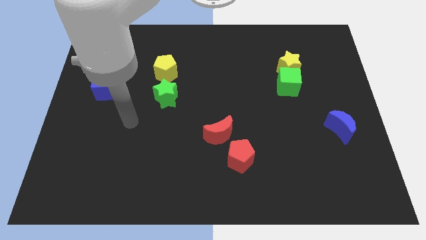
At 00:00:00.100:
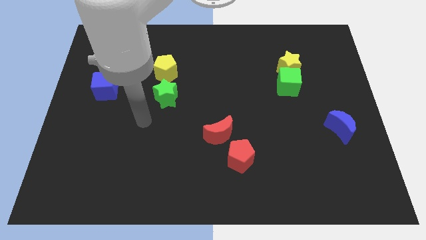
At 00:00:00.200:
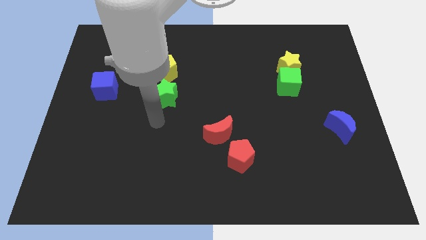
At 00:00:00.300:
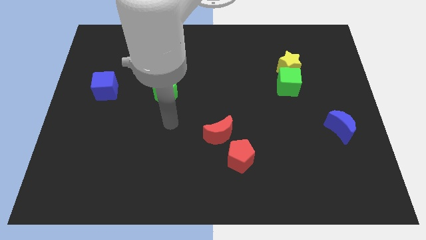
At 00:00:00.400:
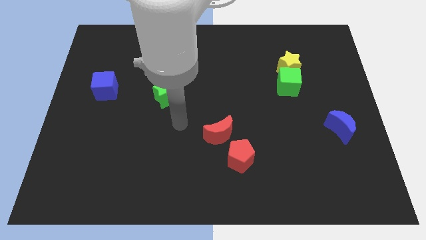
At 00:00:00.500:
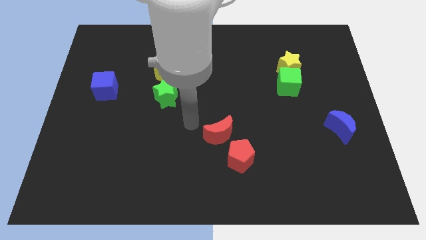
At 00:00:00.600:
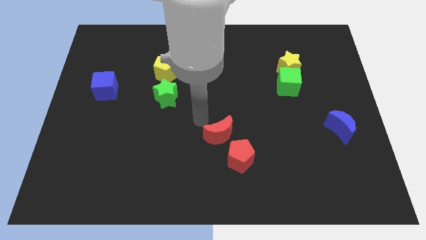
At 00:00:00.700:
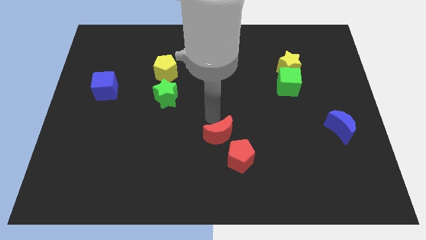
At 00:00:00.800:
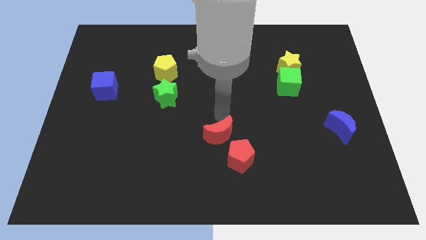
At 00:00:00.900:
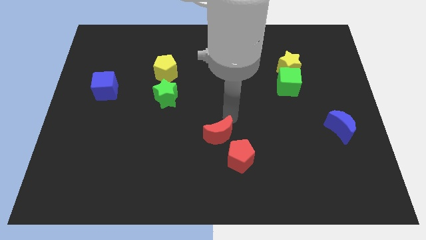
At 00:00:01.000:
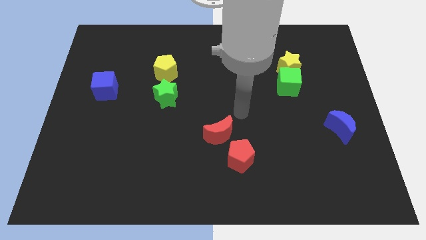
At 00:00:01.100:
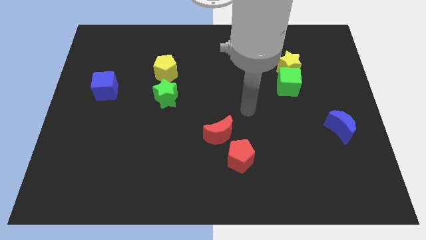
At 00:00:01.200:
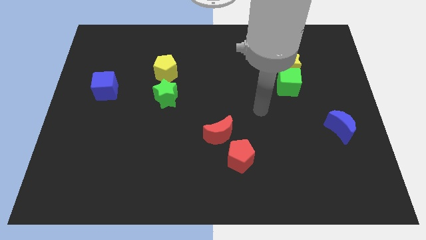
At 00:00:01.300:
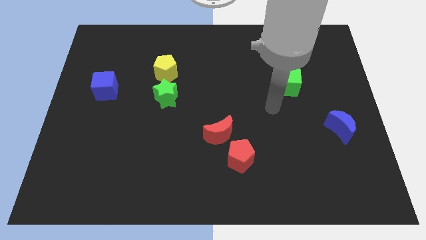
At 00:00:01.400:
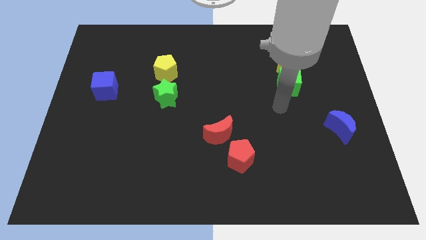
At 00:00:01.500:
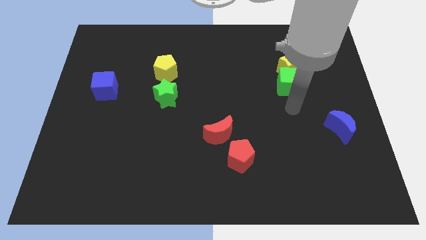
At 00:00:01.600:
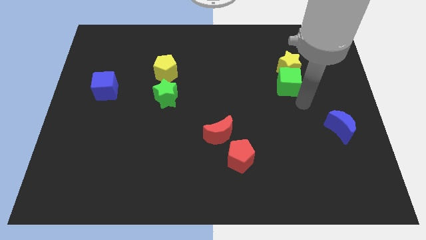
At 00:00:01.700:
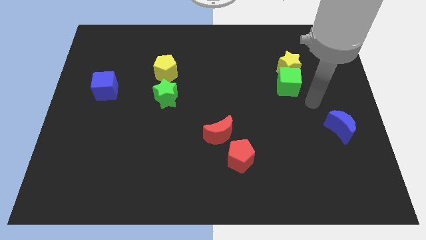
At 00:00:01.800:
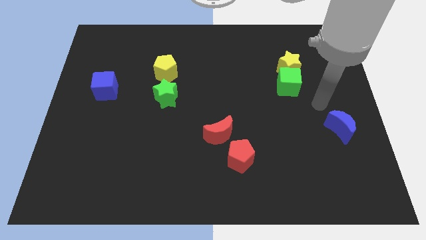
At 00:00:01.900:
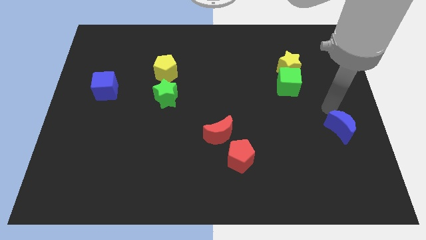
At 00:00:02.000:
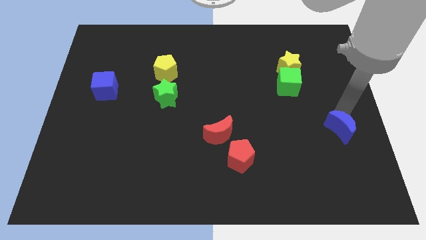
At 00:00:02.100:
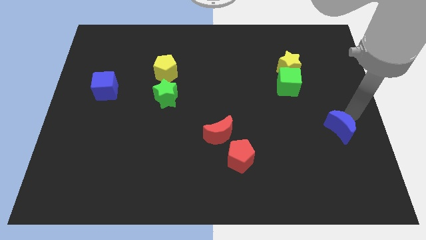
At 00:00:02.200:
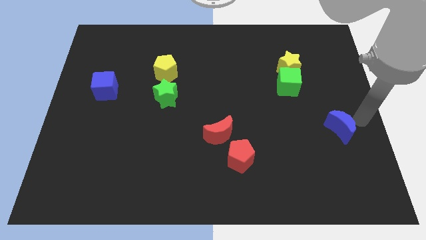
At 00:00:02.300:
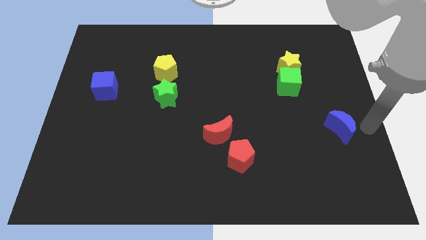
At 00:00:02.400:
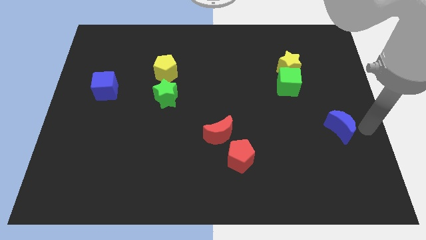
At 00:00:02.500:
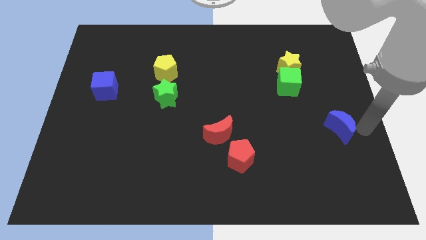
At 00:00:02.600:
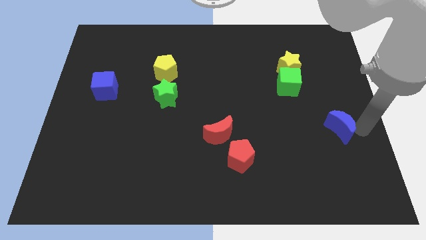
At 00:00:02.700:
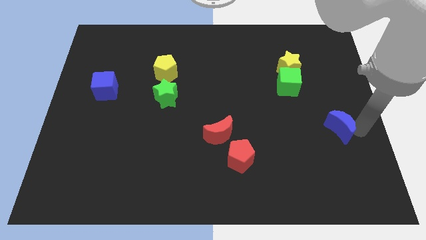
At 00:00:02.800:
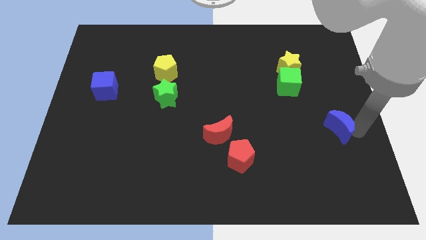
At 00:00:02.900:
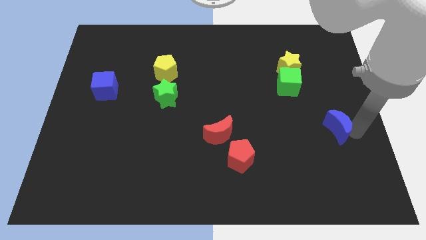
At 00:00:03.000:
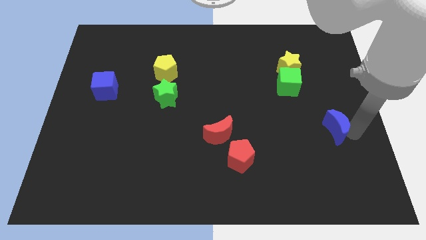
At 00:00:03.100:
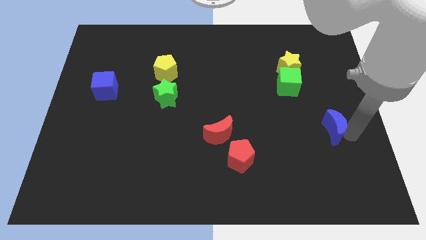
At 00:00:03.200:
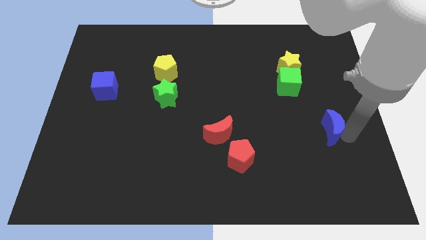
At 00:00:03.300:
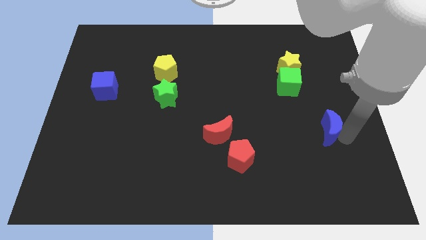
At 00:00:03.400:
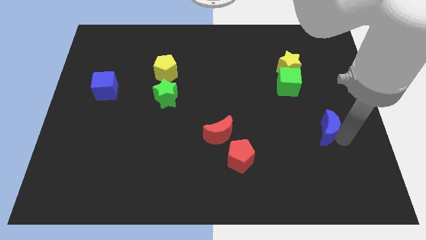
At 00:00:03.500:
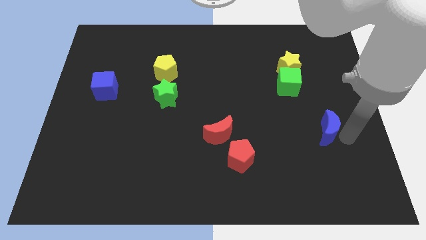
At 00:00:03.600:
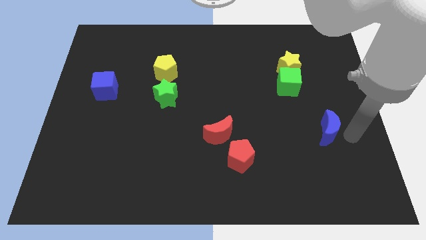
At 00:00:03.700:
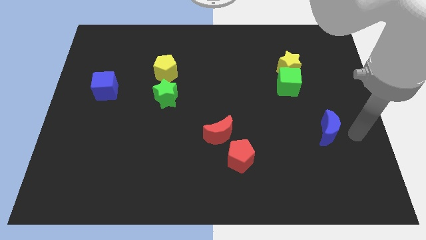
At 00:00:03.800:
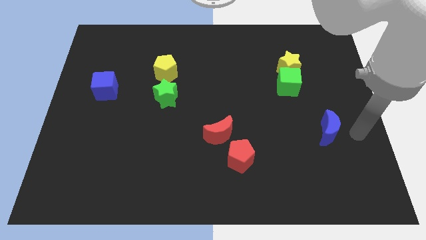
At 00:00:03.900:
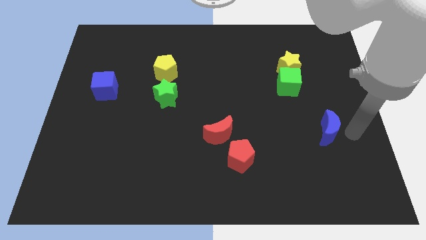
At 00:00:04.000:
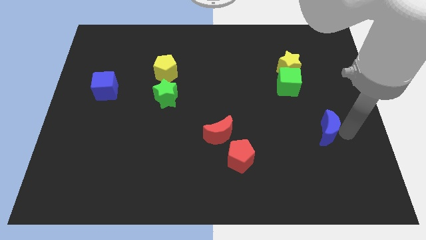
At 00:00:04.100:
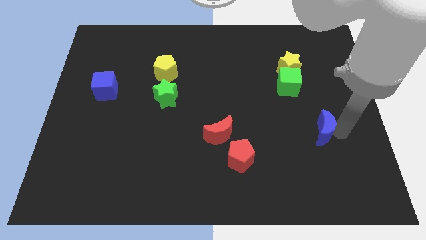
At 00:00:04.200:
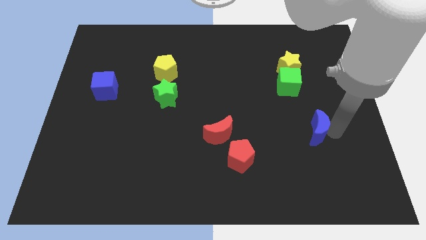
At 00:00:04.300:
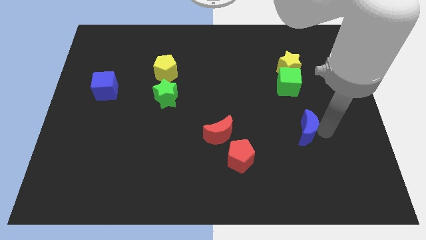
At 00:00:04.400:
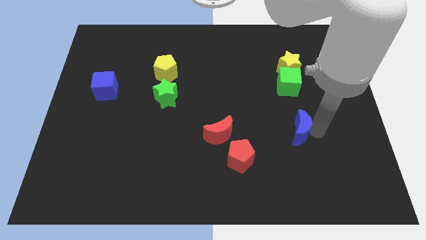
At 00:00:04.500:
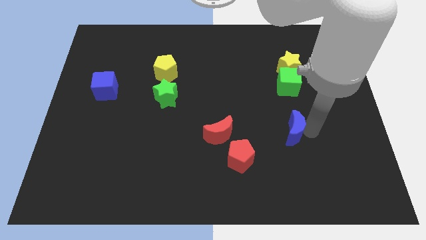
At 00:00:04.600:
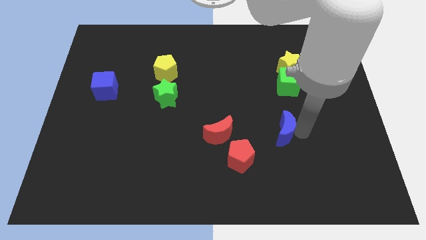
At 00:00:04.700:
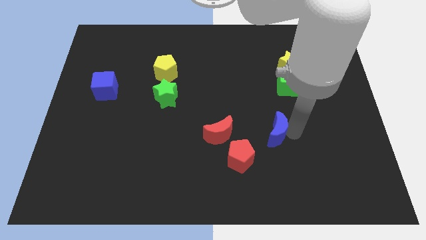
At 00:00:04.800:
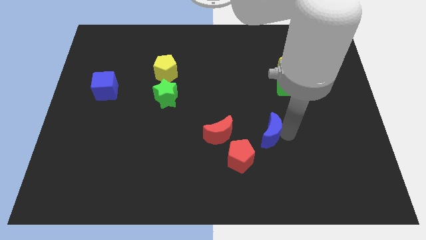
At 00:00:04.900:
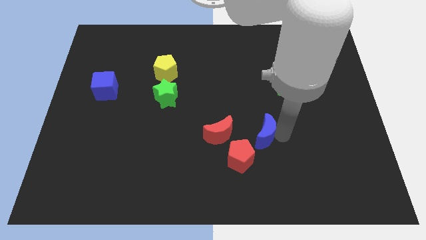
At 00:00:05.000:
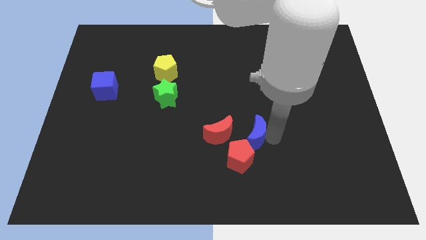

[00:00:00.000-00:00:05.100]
push the blue moon to the top side of the red pentagon

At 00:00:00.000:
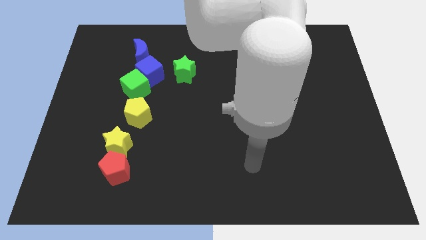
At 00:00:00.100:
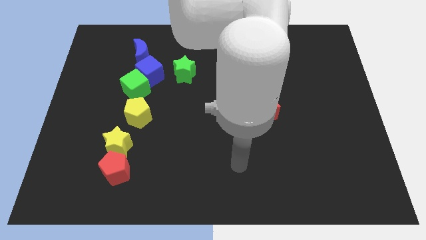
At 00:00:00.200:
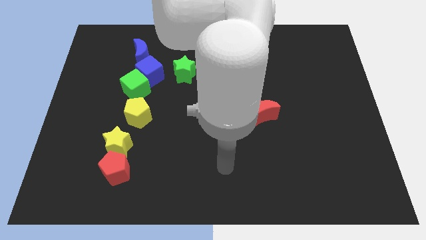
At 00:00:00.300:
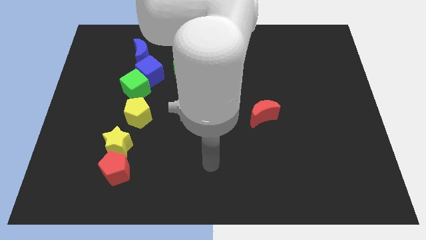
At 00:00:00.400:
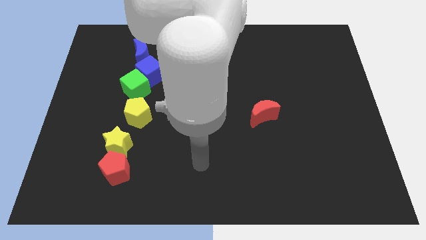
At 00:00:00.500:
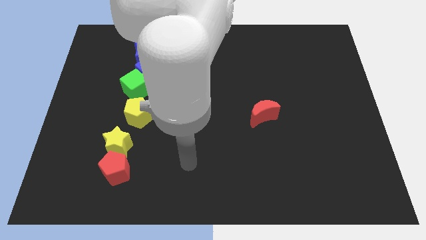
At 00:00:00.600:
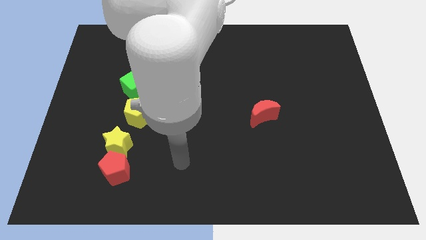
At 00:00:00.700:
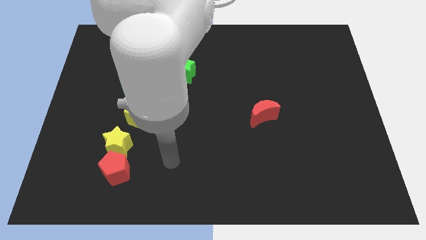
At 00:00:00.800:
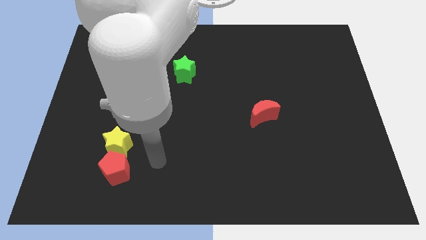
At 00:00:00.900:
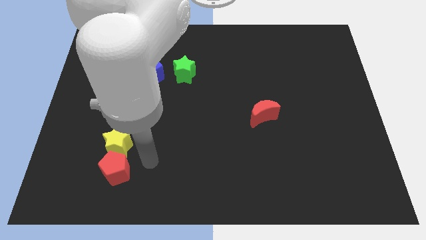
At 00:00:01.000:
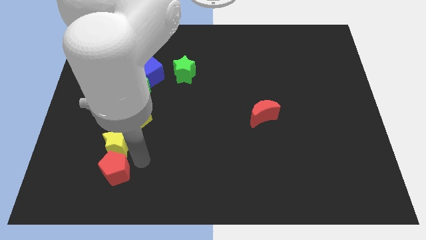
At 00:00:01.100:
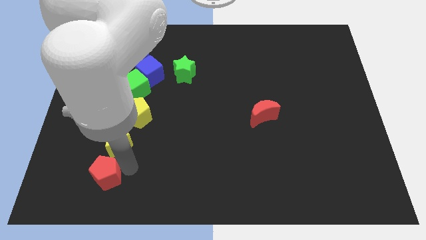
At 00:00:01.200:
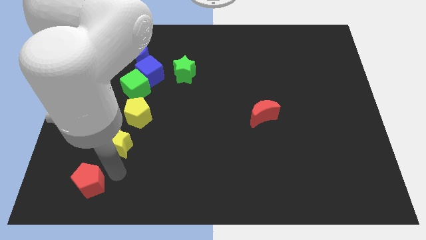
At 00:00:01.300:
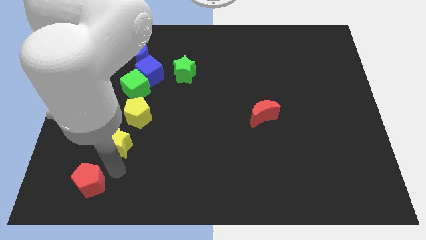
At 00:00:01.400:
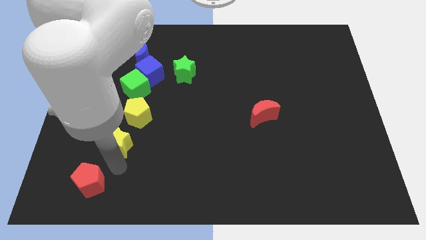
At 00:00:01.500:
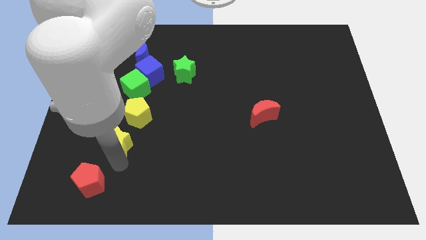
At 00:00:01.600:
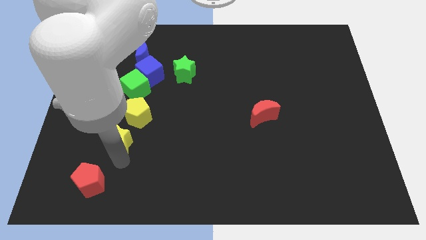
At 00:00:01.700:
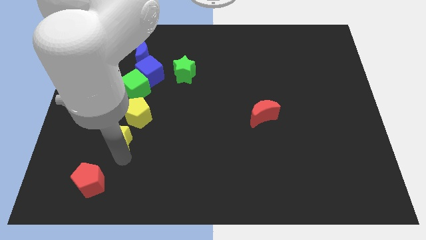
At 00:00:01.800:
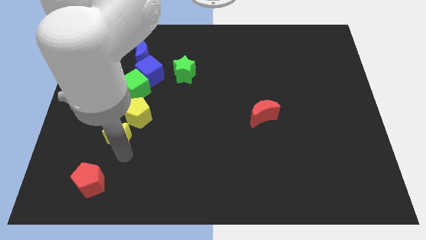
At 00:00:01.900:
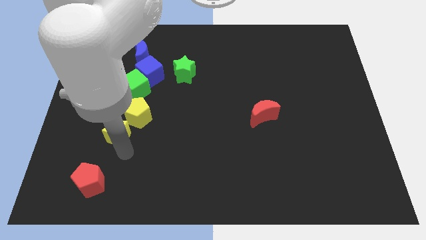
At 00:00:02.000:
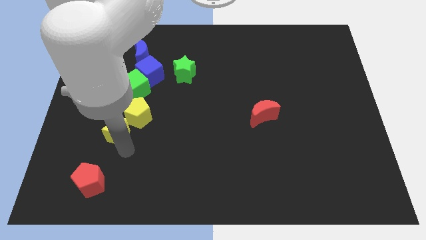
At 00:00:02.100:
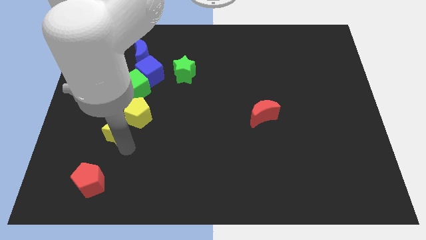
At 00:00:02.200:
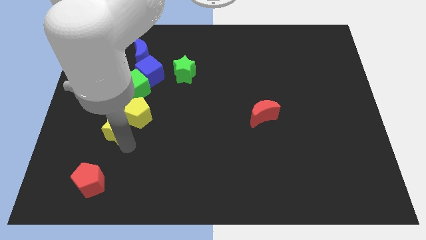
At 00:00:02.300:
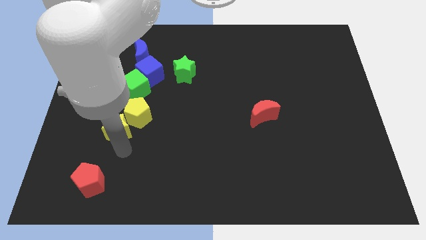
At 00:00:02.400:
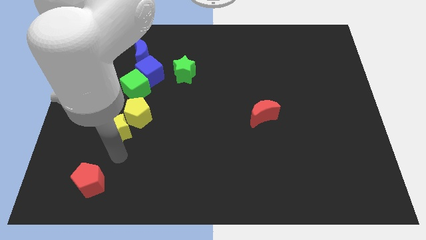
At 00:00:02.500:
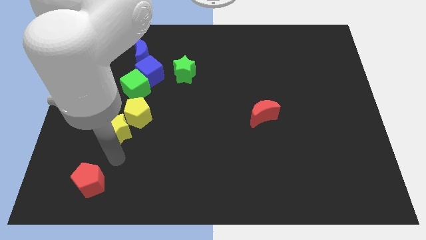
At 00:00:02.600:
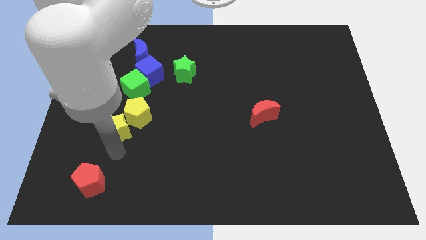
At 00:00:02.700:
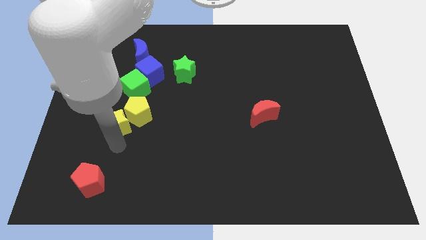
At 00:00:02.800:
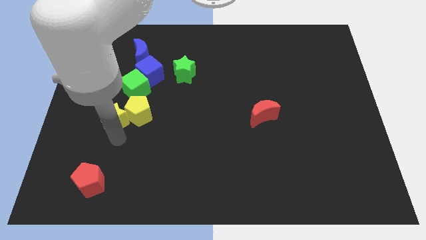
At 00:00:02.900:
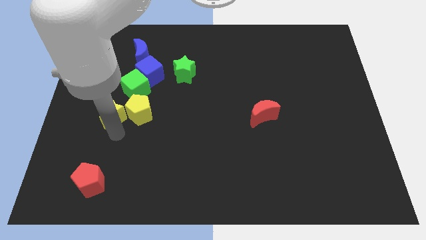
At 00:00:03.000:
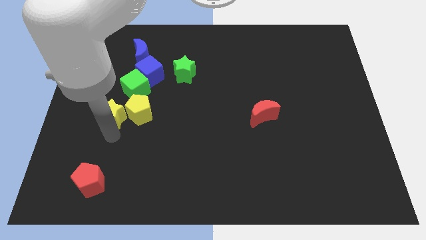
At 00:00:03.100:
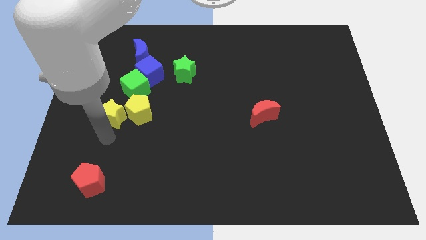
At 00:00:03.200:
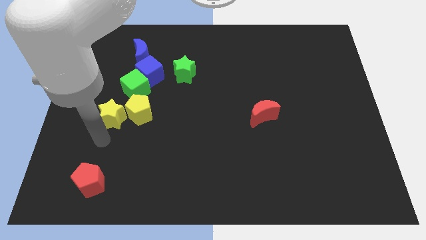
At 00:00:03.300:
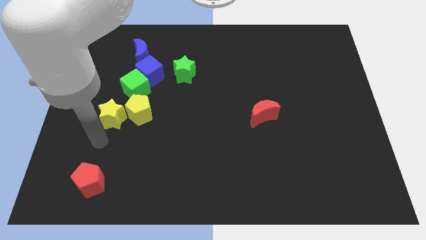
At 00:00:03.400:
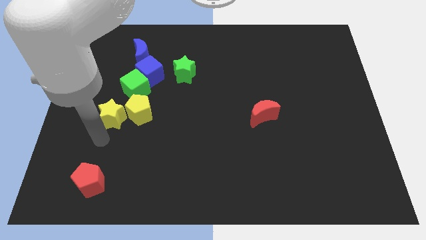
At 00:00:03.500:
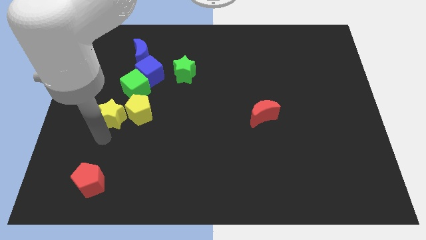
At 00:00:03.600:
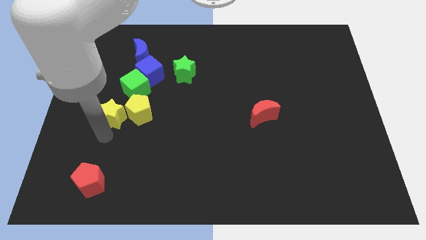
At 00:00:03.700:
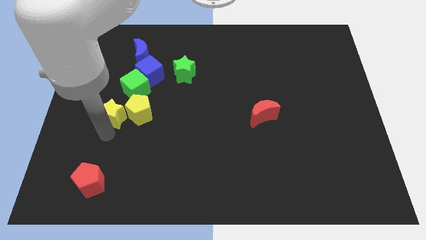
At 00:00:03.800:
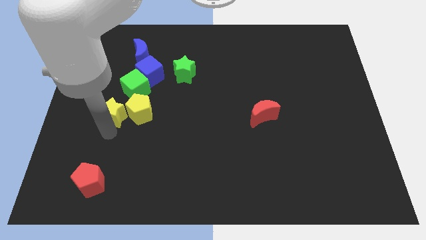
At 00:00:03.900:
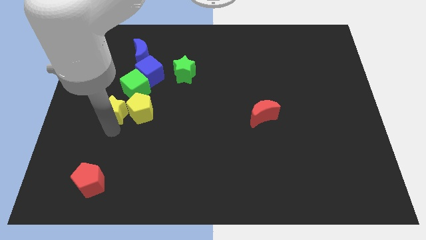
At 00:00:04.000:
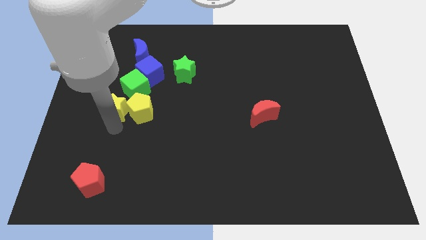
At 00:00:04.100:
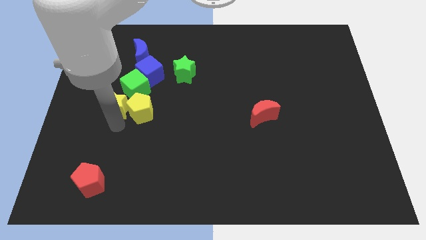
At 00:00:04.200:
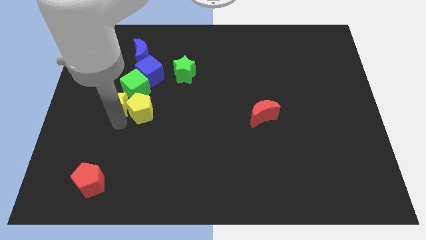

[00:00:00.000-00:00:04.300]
slide the yellow star to the bottom left of the blue cube
